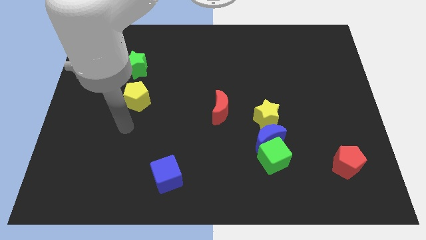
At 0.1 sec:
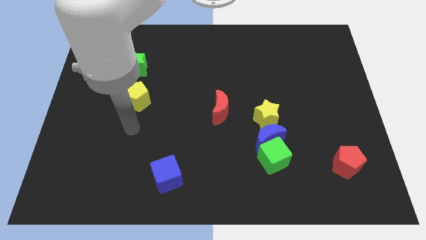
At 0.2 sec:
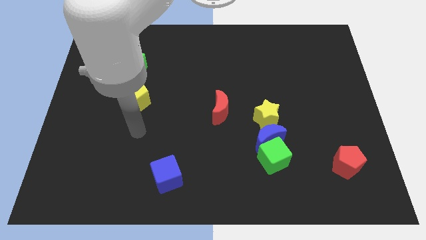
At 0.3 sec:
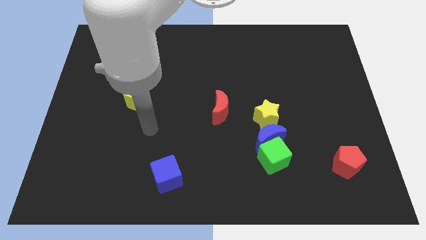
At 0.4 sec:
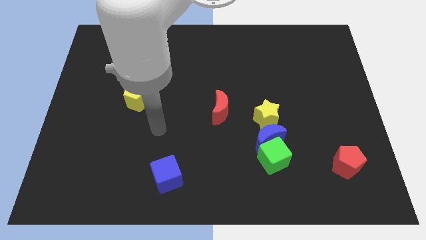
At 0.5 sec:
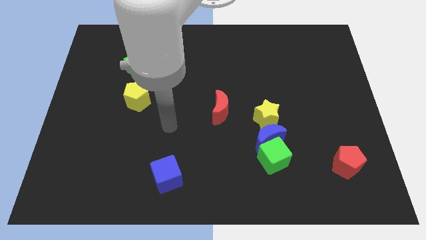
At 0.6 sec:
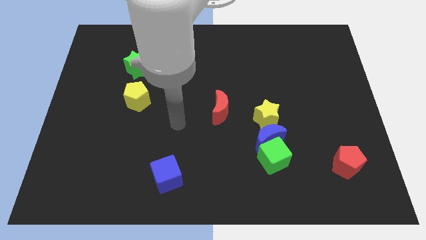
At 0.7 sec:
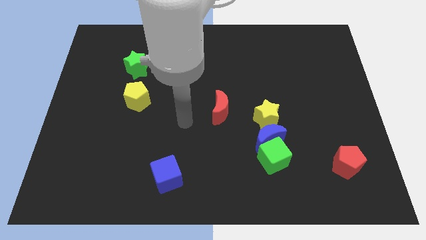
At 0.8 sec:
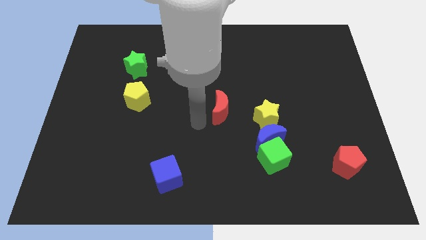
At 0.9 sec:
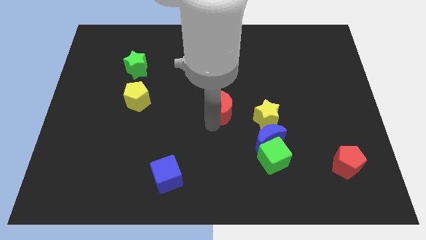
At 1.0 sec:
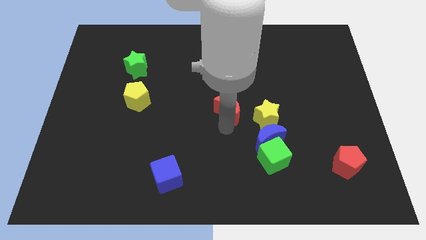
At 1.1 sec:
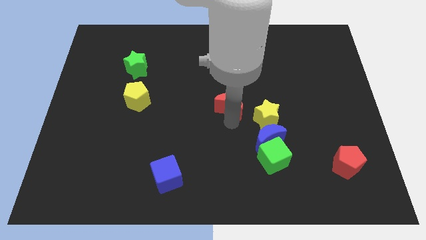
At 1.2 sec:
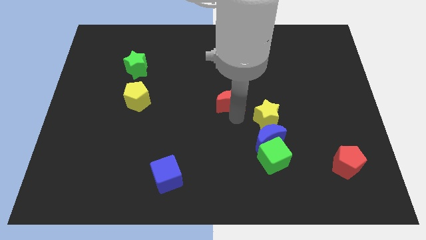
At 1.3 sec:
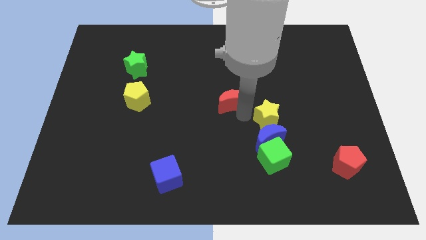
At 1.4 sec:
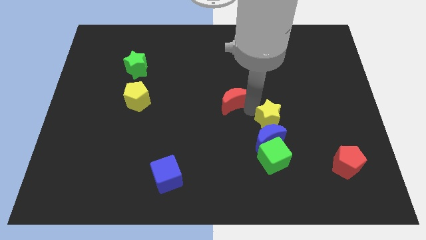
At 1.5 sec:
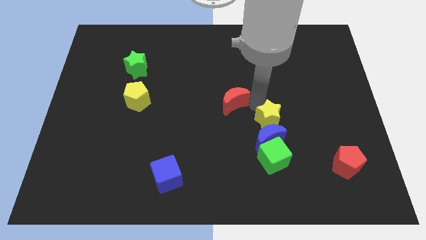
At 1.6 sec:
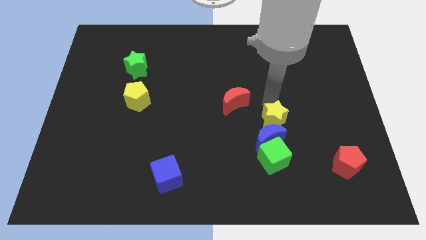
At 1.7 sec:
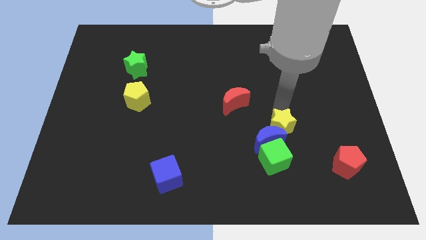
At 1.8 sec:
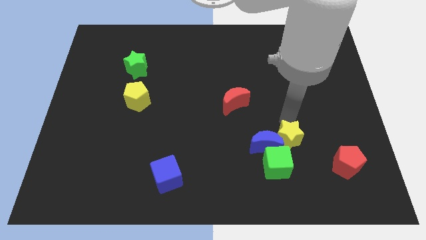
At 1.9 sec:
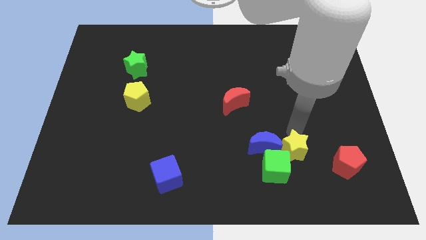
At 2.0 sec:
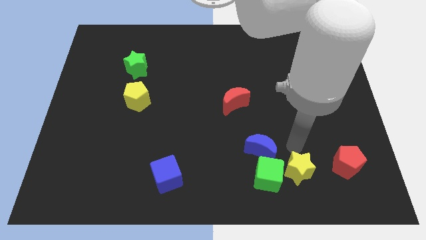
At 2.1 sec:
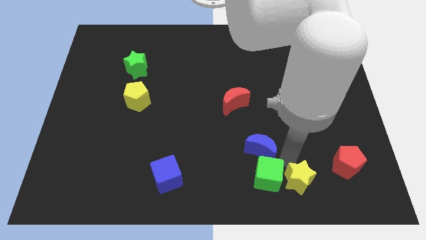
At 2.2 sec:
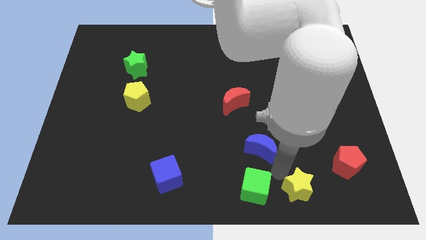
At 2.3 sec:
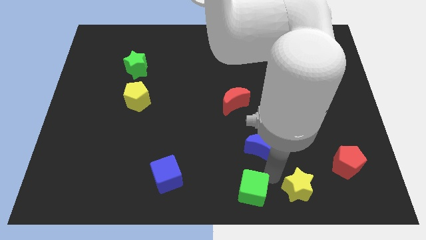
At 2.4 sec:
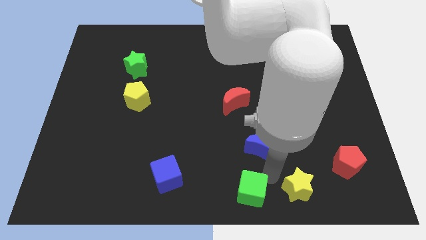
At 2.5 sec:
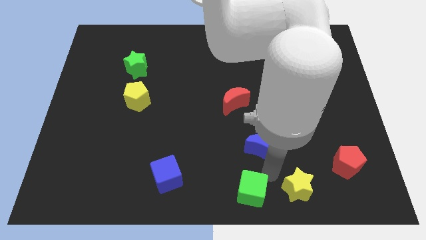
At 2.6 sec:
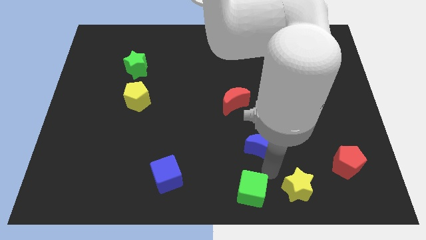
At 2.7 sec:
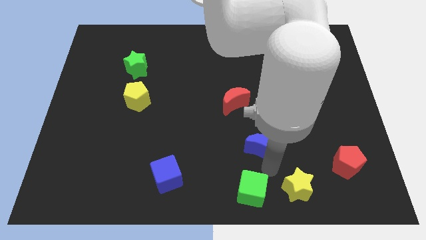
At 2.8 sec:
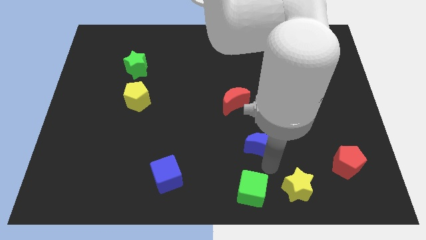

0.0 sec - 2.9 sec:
pull the blue moon apart from the green cube and yellow star

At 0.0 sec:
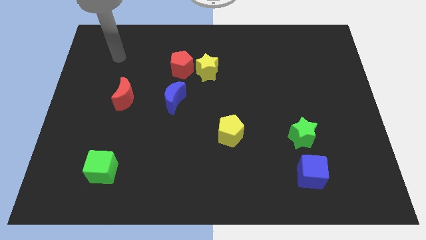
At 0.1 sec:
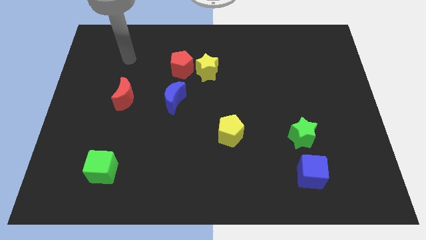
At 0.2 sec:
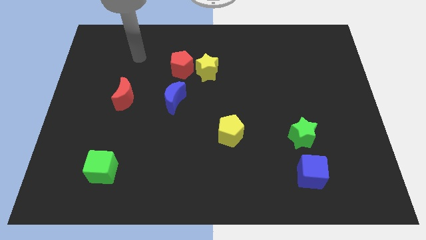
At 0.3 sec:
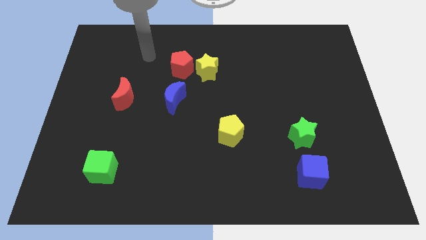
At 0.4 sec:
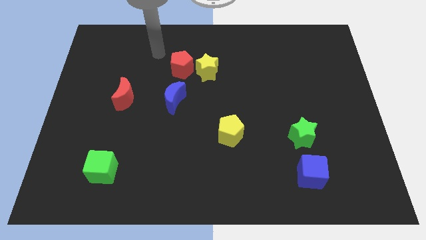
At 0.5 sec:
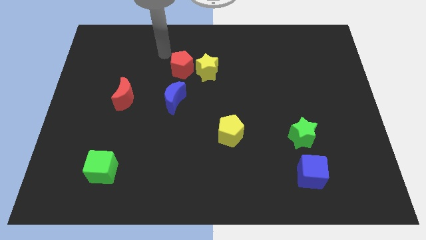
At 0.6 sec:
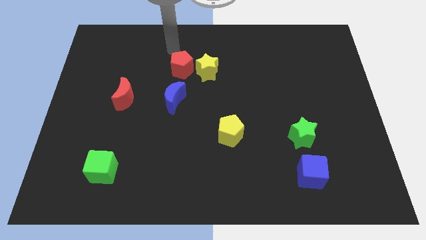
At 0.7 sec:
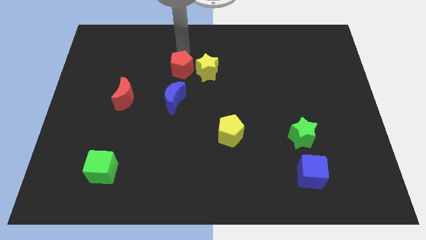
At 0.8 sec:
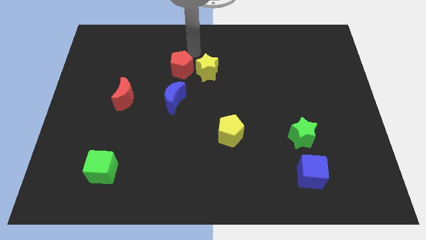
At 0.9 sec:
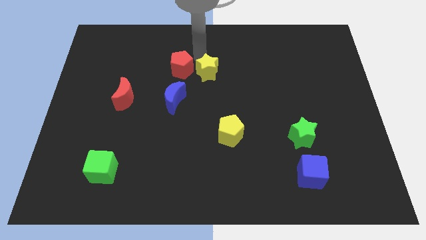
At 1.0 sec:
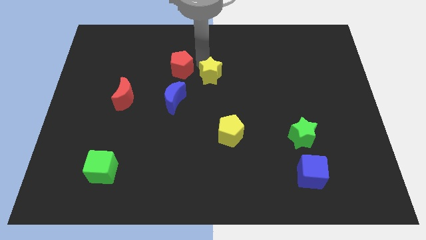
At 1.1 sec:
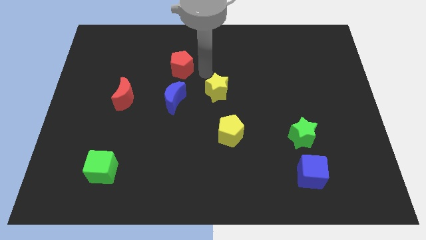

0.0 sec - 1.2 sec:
pull the red pentagon apart from the yellow star

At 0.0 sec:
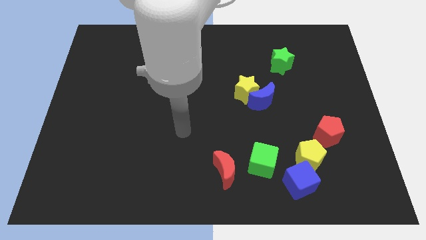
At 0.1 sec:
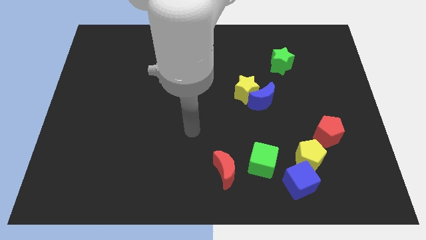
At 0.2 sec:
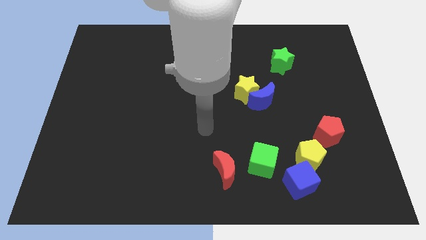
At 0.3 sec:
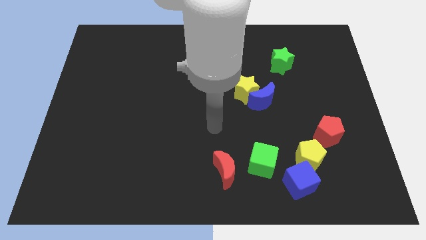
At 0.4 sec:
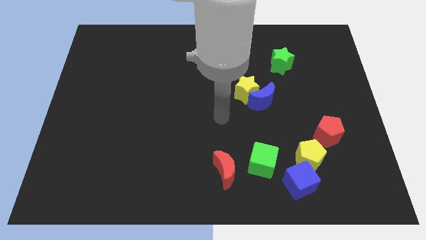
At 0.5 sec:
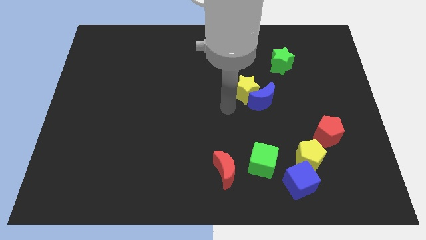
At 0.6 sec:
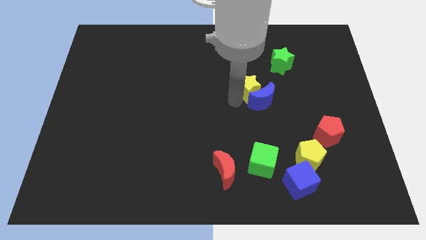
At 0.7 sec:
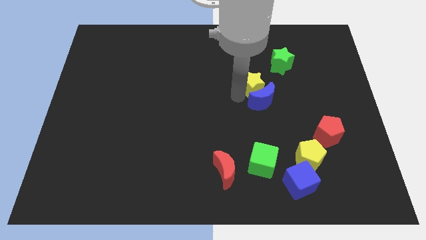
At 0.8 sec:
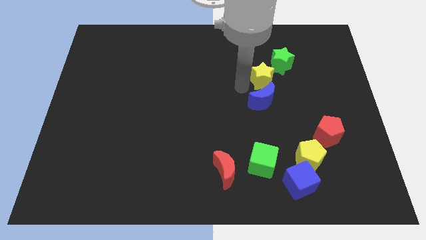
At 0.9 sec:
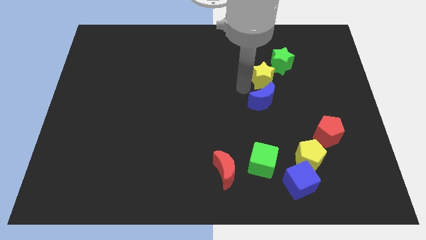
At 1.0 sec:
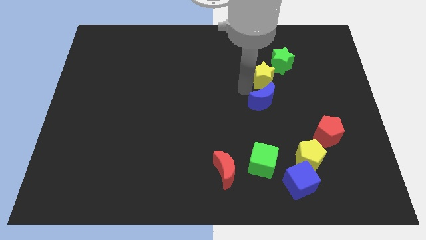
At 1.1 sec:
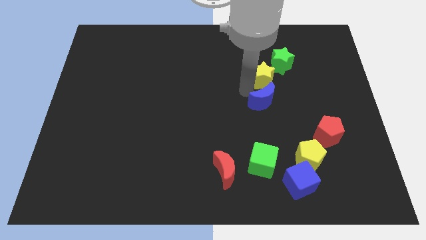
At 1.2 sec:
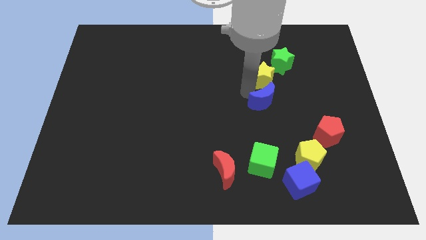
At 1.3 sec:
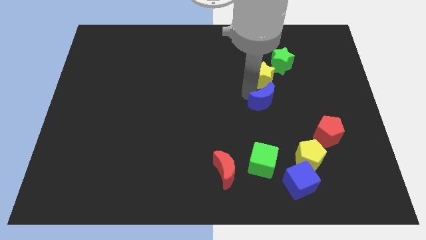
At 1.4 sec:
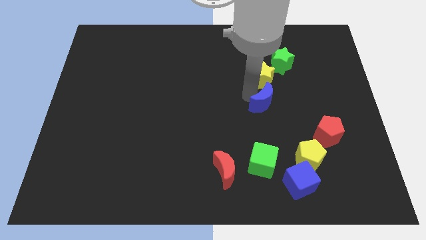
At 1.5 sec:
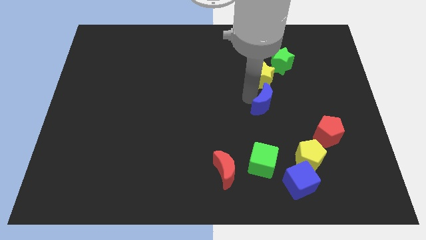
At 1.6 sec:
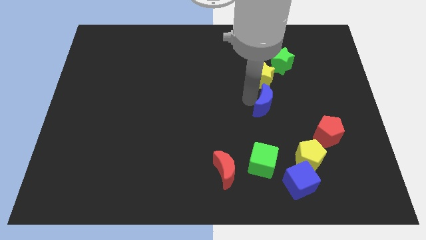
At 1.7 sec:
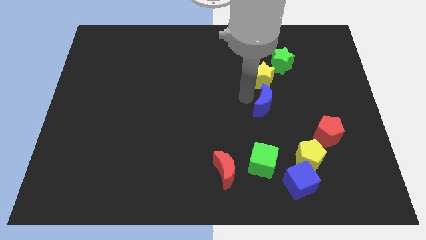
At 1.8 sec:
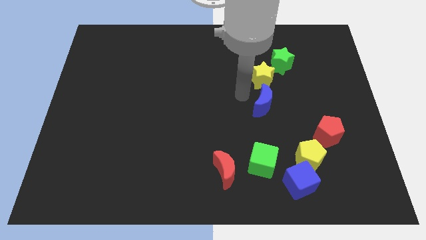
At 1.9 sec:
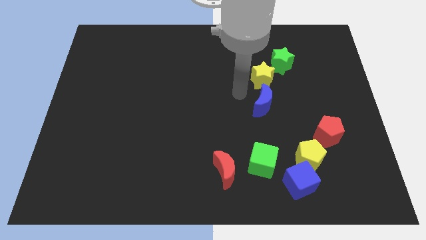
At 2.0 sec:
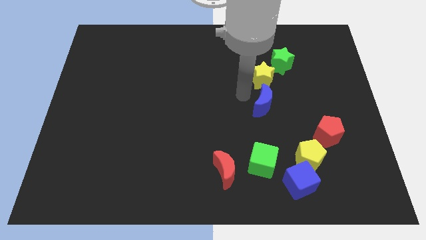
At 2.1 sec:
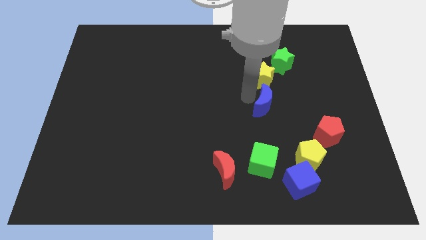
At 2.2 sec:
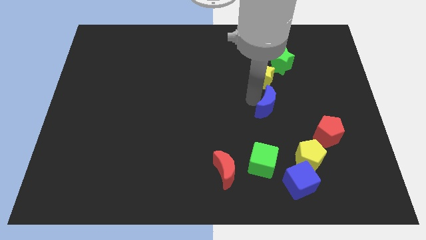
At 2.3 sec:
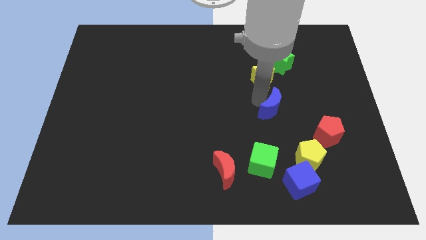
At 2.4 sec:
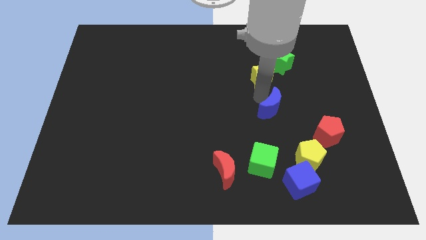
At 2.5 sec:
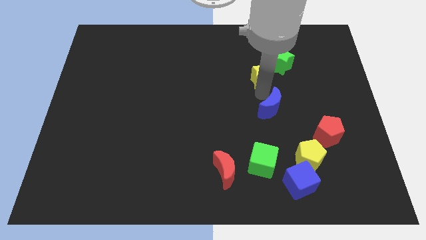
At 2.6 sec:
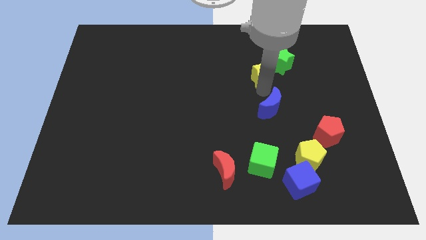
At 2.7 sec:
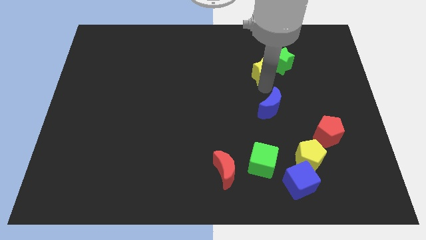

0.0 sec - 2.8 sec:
move the blue moon away from the yellow star

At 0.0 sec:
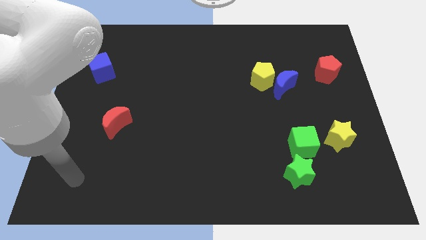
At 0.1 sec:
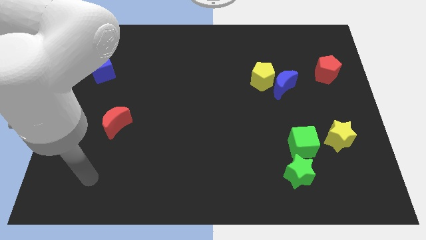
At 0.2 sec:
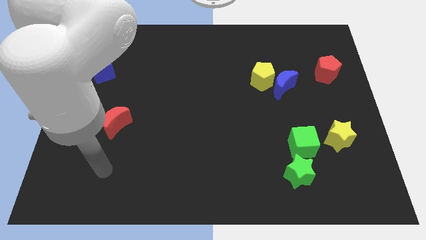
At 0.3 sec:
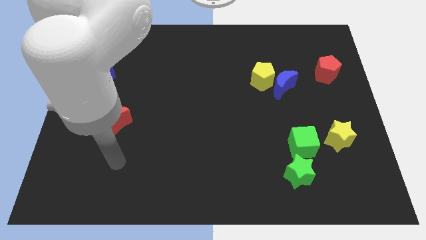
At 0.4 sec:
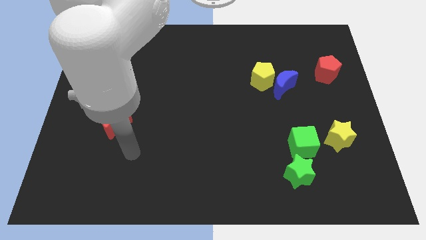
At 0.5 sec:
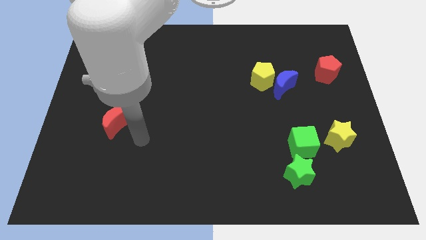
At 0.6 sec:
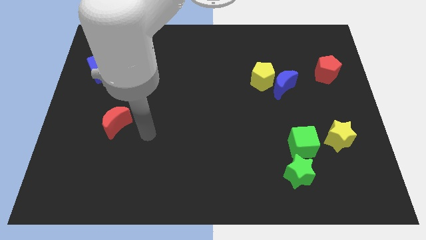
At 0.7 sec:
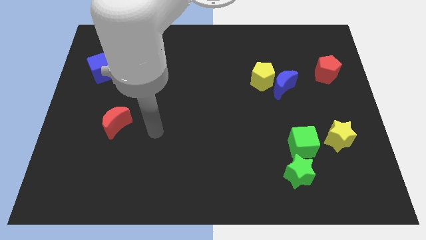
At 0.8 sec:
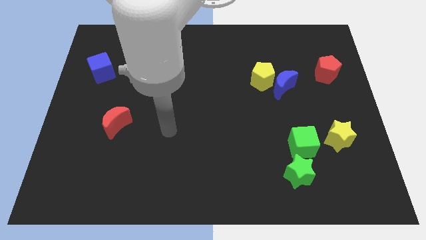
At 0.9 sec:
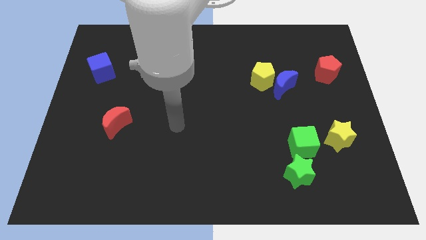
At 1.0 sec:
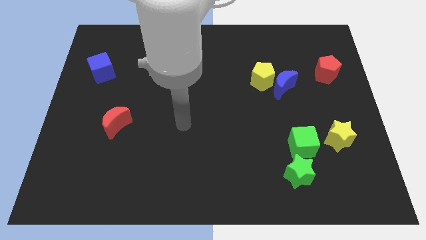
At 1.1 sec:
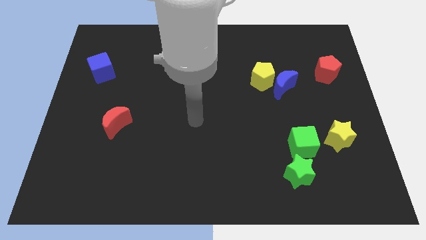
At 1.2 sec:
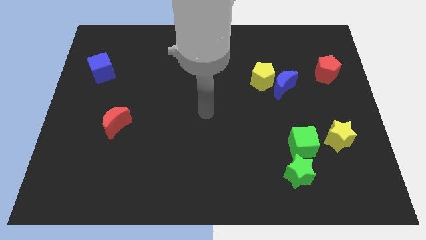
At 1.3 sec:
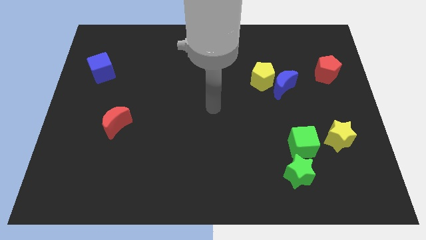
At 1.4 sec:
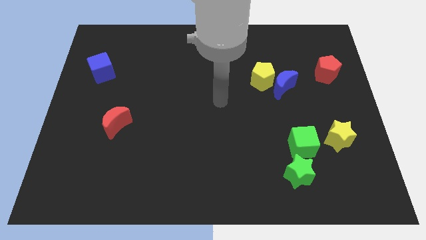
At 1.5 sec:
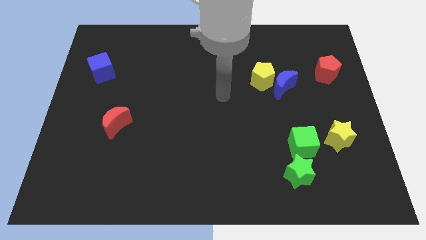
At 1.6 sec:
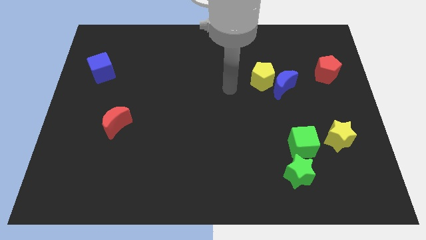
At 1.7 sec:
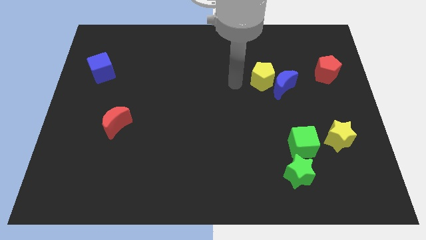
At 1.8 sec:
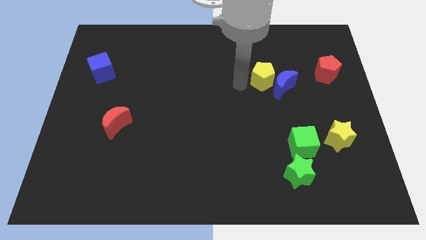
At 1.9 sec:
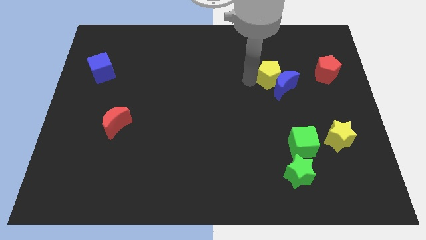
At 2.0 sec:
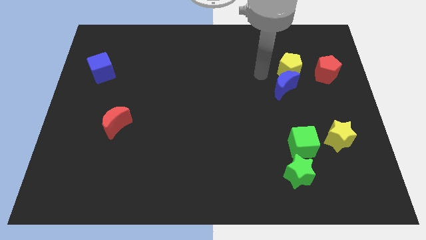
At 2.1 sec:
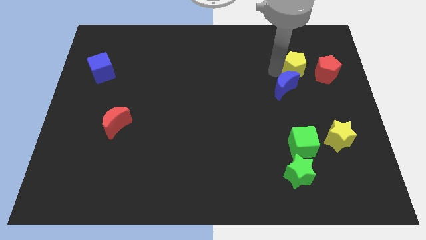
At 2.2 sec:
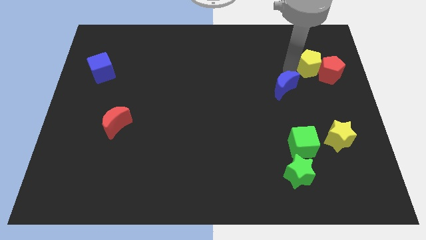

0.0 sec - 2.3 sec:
move the blue moon away from the yellow pentagon
